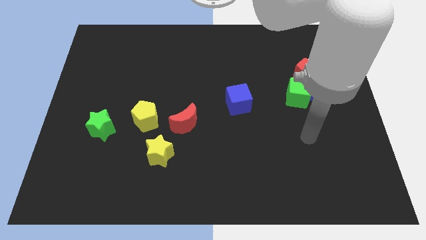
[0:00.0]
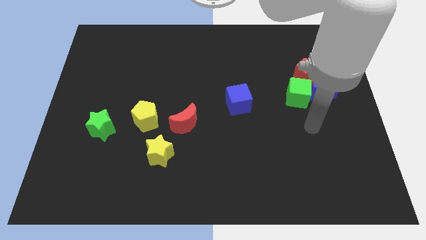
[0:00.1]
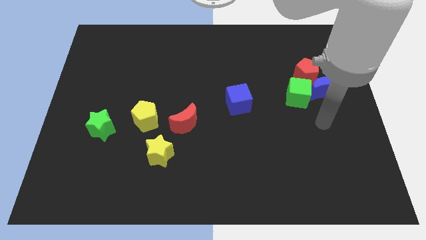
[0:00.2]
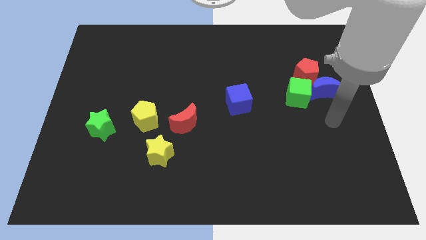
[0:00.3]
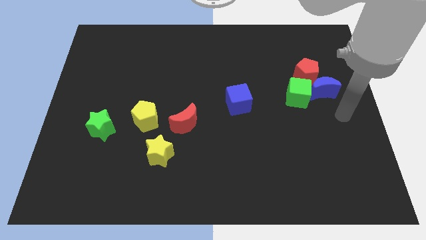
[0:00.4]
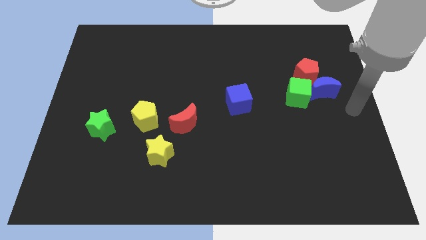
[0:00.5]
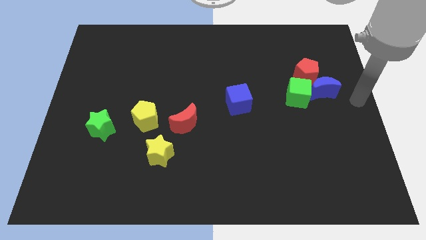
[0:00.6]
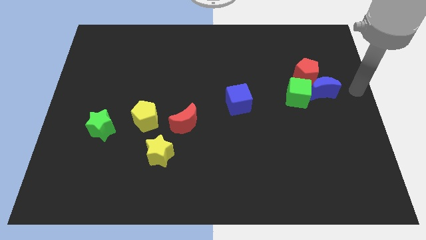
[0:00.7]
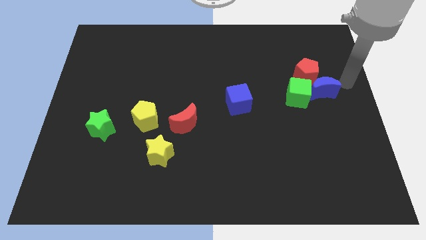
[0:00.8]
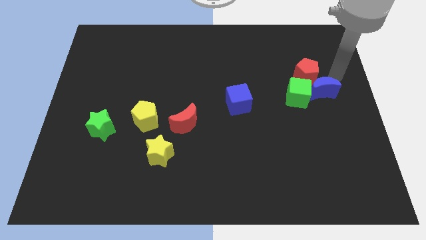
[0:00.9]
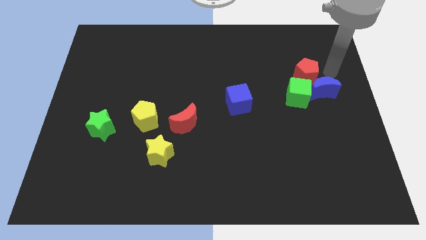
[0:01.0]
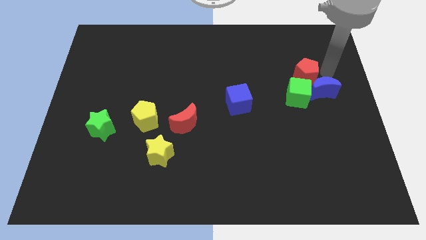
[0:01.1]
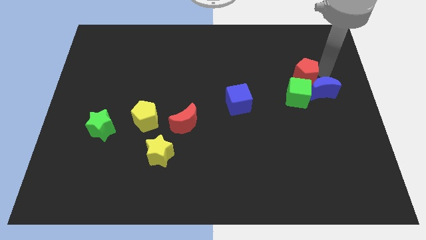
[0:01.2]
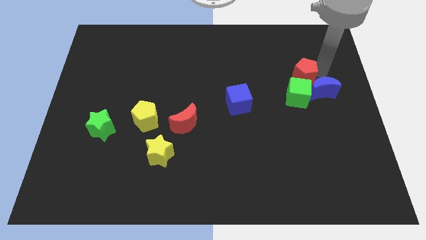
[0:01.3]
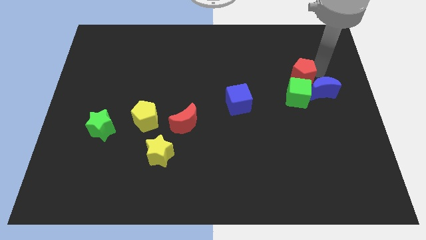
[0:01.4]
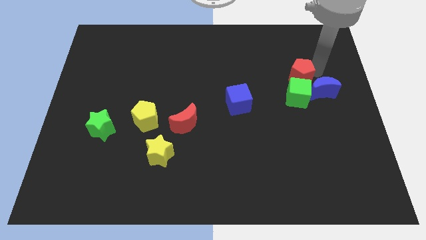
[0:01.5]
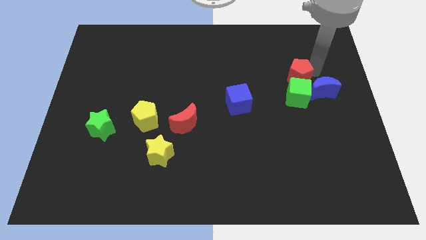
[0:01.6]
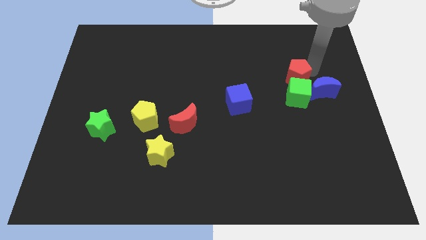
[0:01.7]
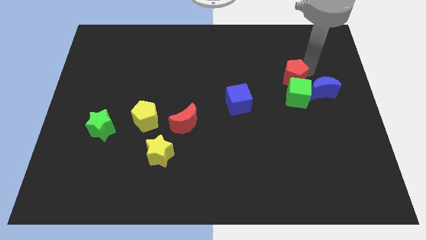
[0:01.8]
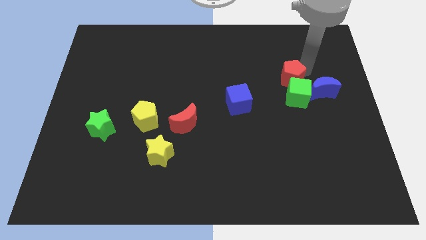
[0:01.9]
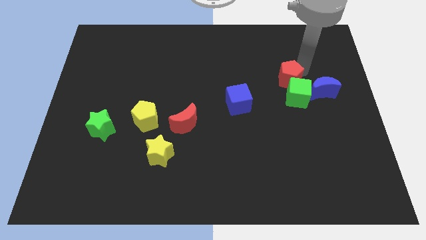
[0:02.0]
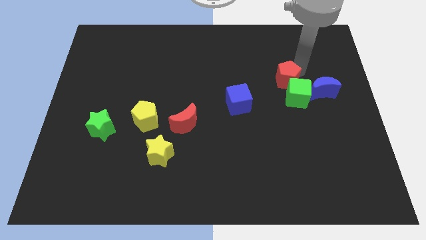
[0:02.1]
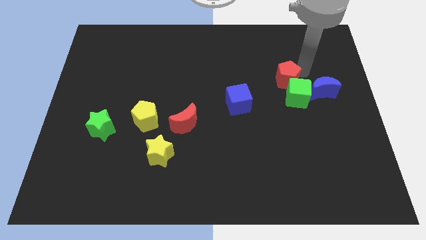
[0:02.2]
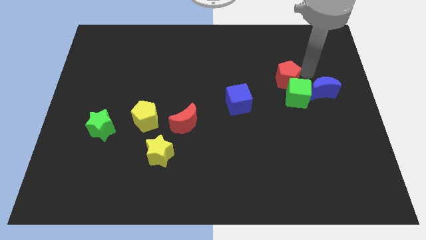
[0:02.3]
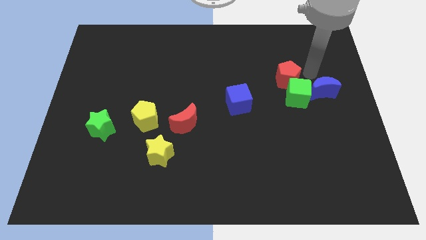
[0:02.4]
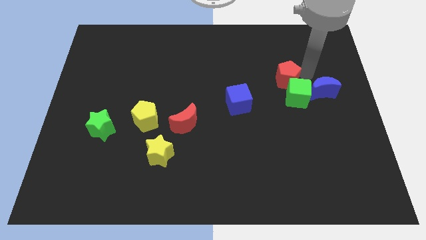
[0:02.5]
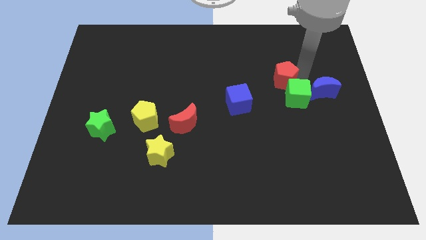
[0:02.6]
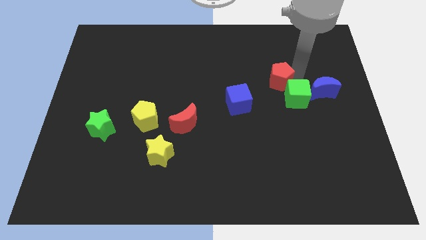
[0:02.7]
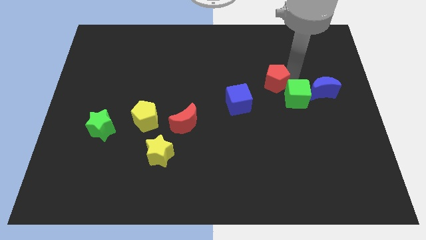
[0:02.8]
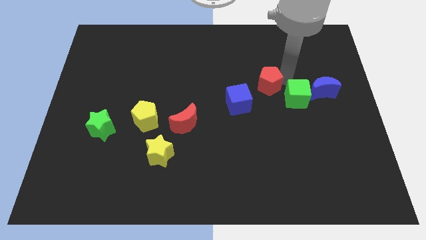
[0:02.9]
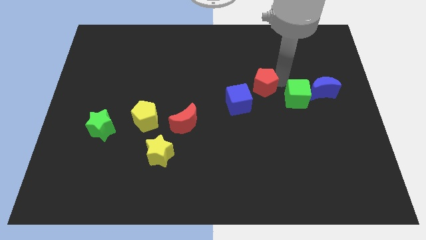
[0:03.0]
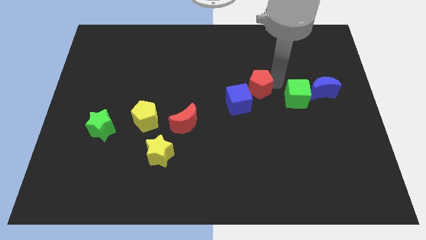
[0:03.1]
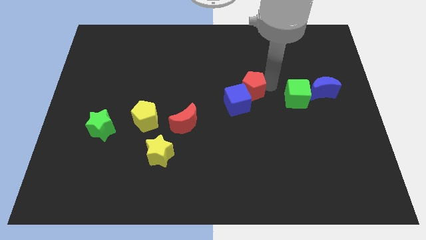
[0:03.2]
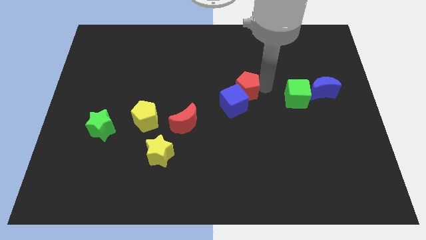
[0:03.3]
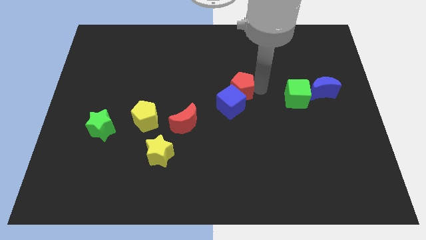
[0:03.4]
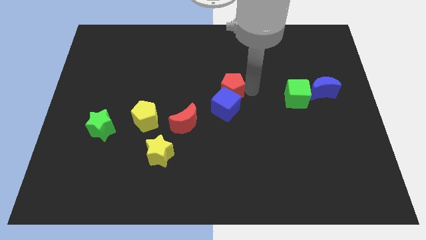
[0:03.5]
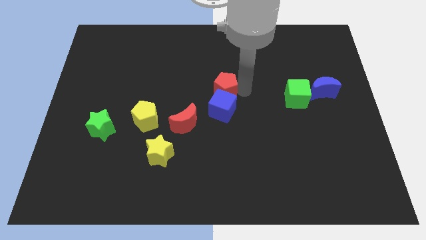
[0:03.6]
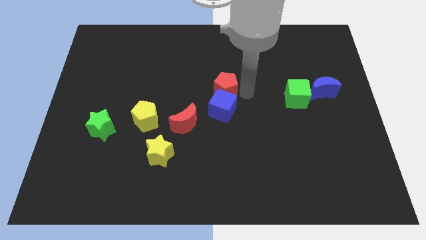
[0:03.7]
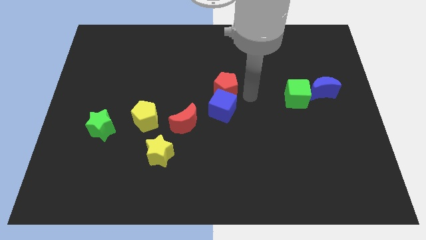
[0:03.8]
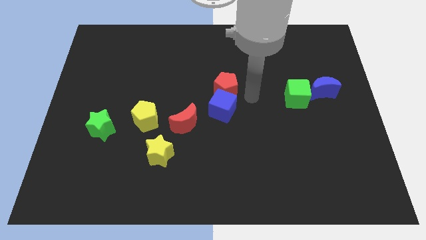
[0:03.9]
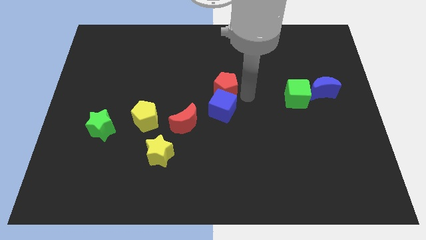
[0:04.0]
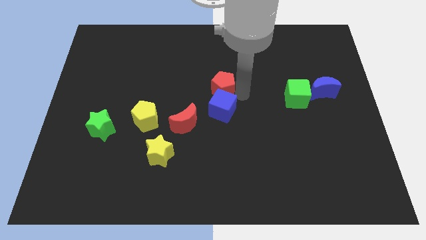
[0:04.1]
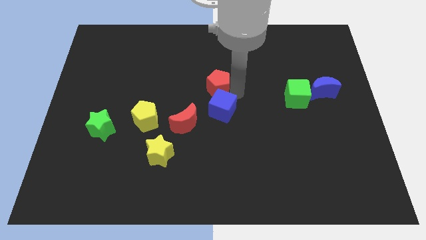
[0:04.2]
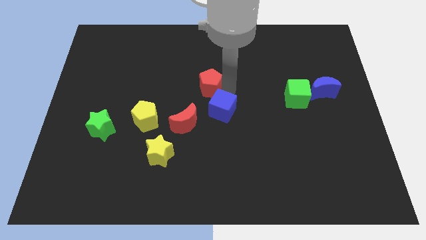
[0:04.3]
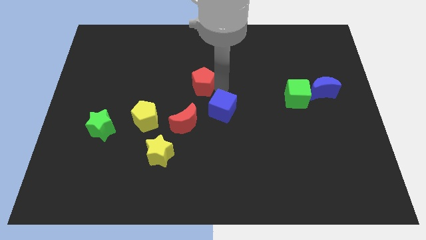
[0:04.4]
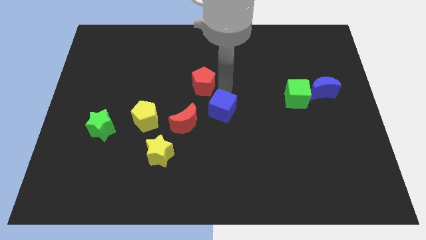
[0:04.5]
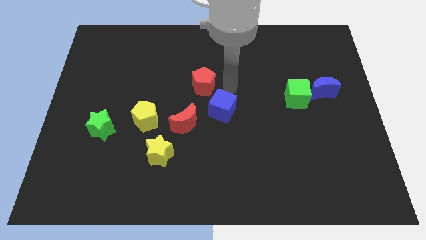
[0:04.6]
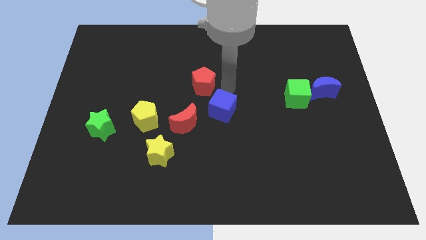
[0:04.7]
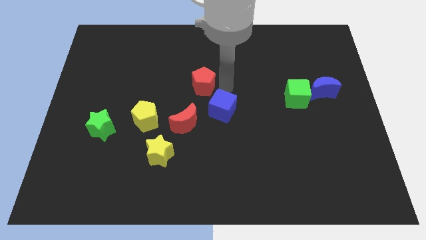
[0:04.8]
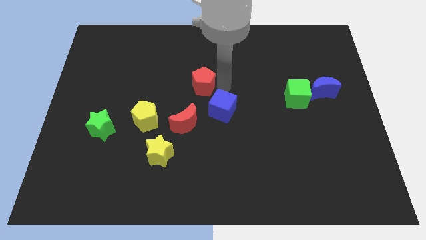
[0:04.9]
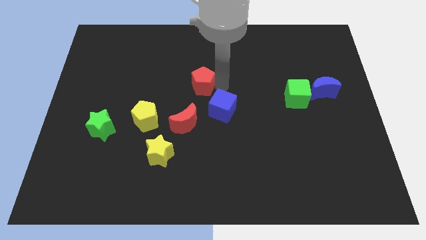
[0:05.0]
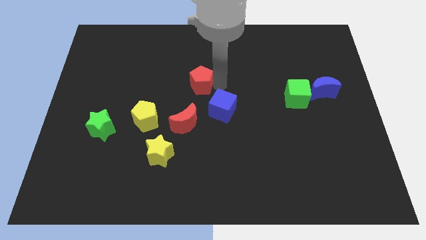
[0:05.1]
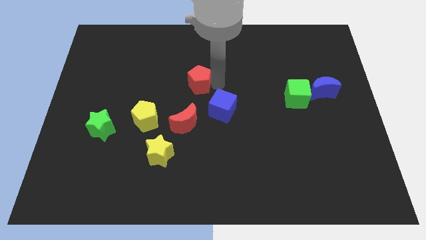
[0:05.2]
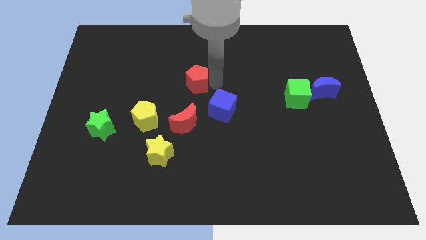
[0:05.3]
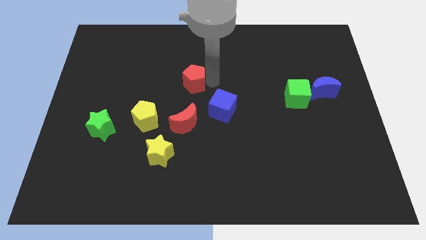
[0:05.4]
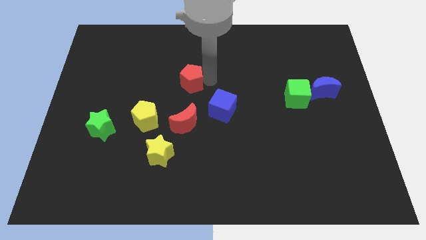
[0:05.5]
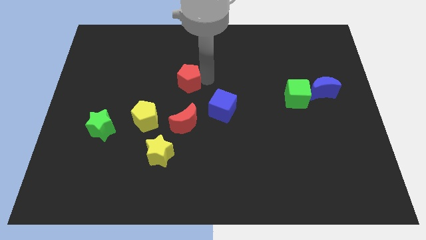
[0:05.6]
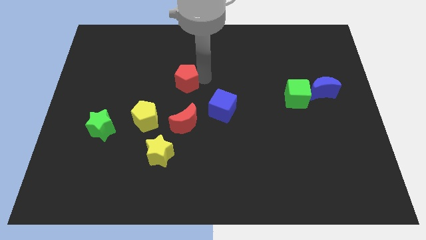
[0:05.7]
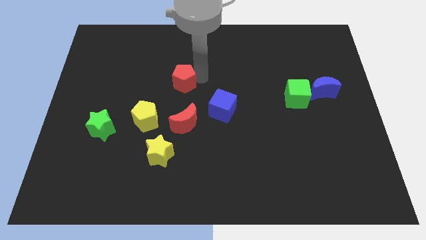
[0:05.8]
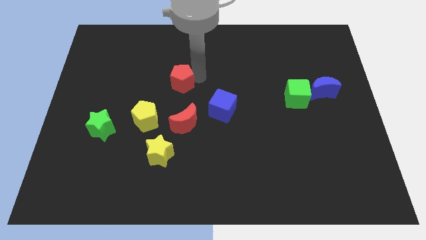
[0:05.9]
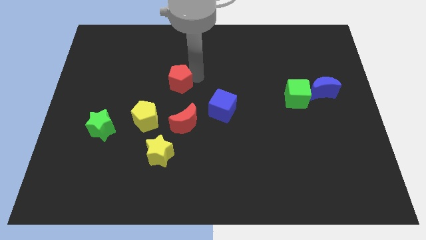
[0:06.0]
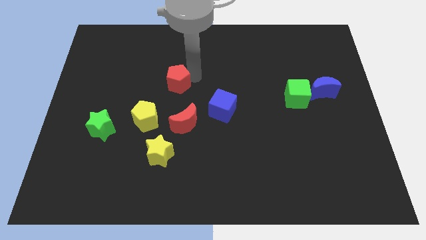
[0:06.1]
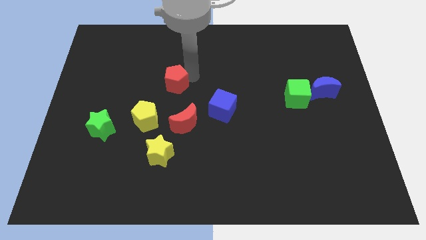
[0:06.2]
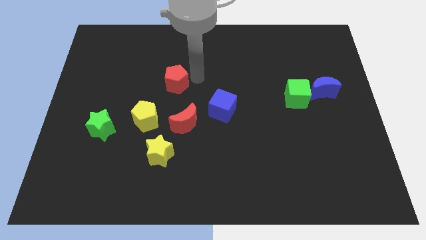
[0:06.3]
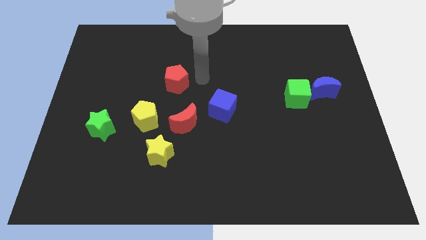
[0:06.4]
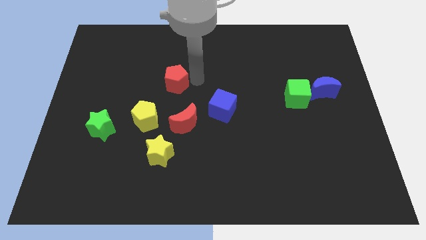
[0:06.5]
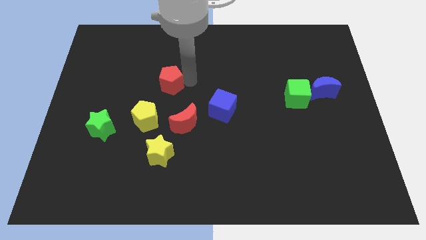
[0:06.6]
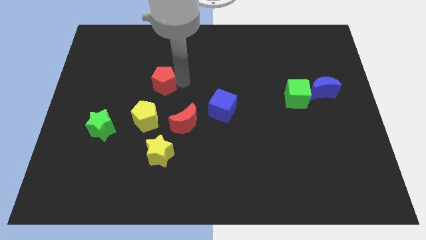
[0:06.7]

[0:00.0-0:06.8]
push the red pentagon above the yellow pentagon
